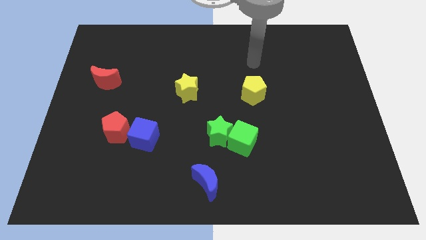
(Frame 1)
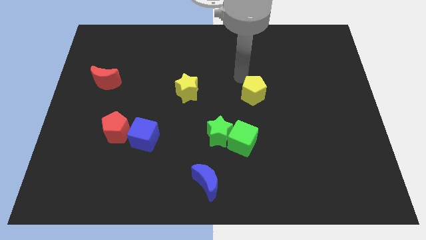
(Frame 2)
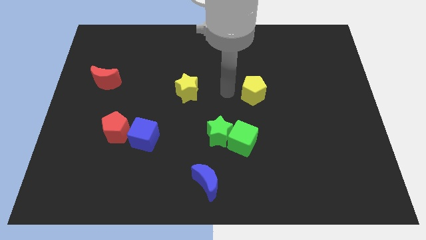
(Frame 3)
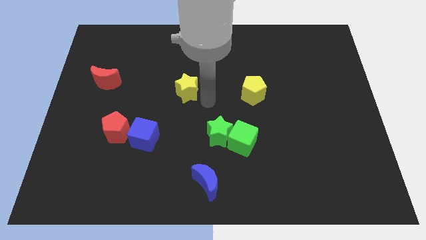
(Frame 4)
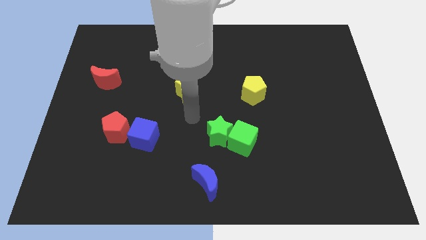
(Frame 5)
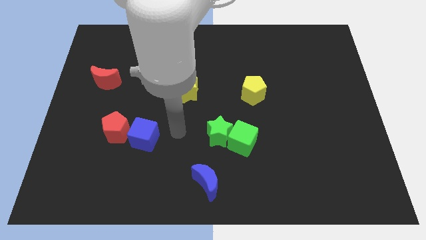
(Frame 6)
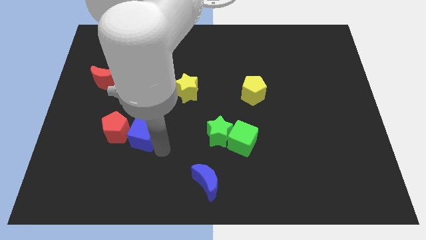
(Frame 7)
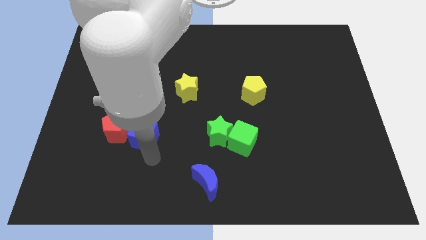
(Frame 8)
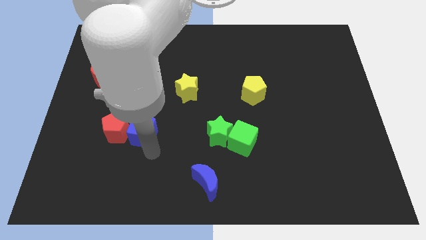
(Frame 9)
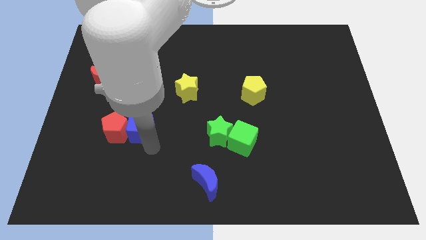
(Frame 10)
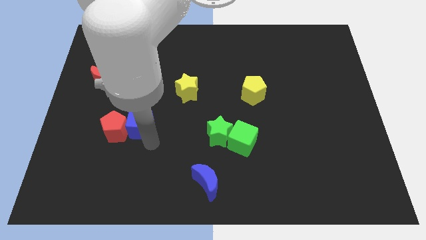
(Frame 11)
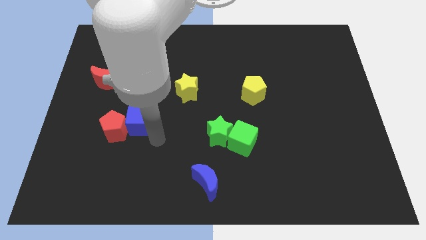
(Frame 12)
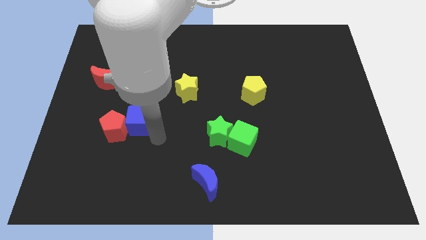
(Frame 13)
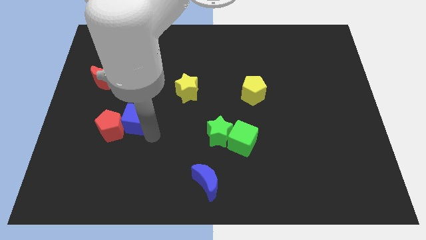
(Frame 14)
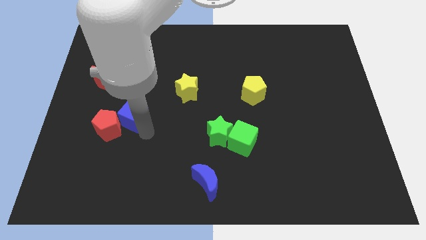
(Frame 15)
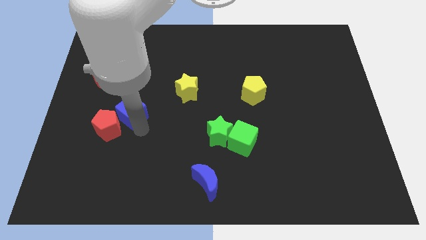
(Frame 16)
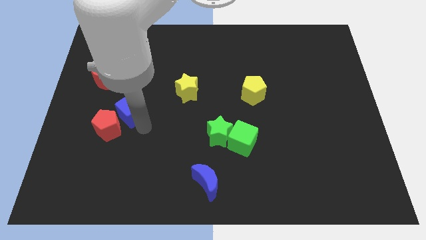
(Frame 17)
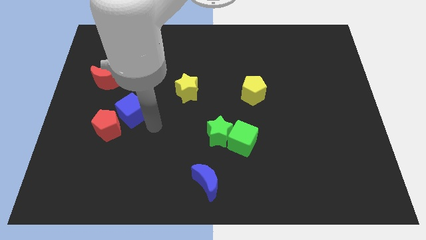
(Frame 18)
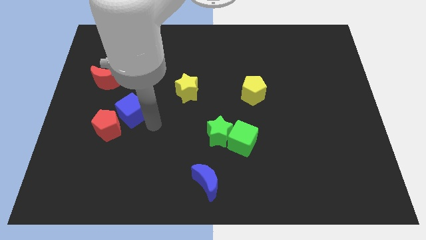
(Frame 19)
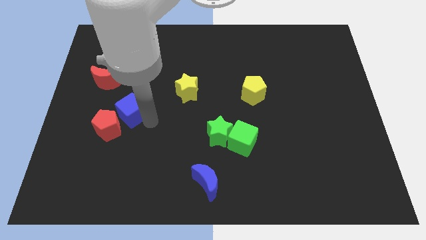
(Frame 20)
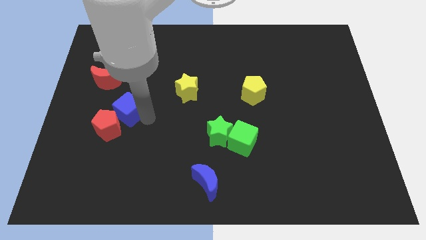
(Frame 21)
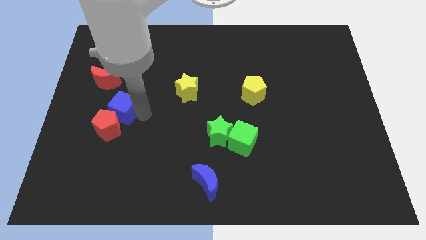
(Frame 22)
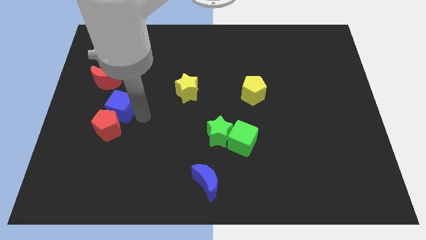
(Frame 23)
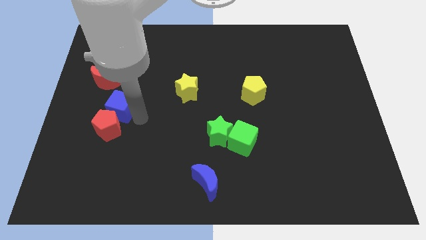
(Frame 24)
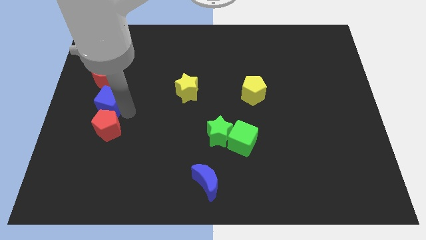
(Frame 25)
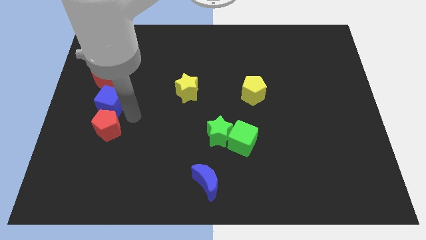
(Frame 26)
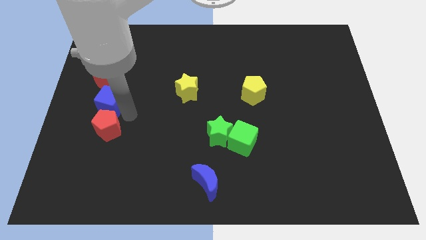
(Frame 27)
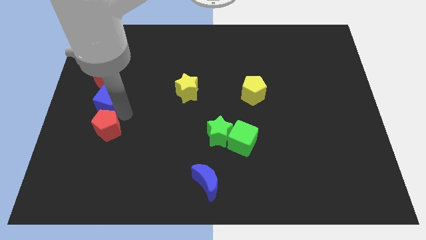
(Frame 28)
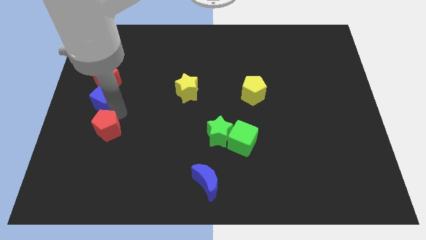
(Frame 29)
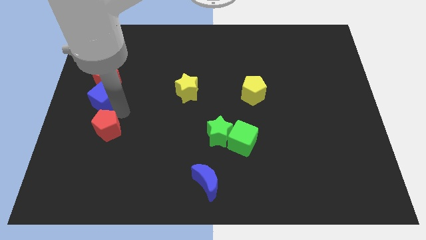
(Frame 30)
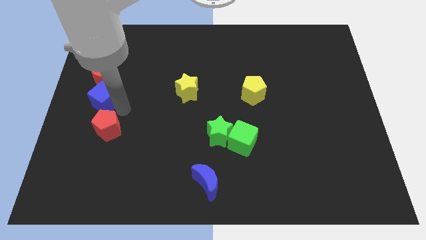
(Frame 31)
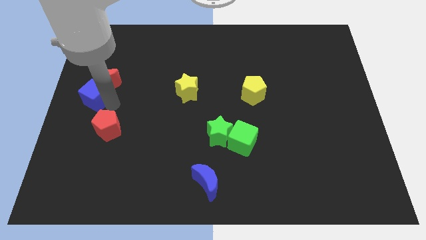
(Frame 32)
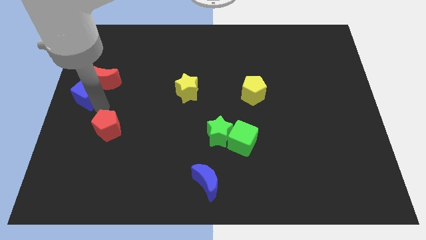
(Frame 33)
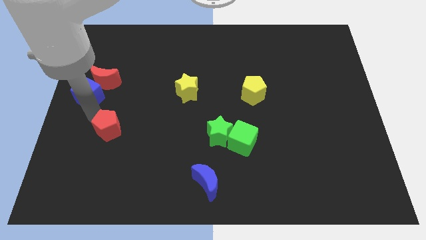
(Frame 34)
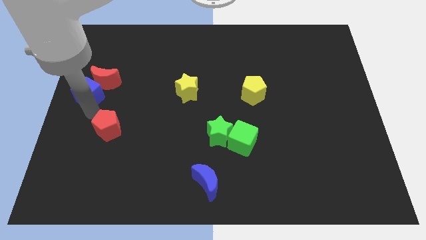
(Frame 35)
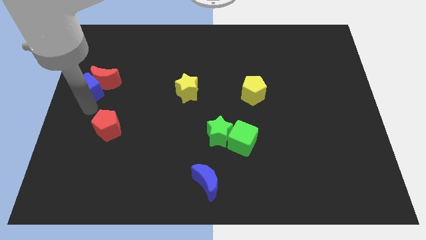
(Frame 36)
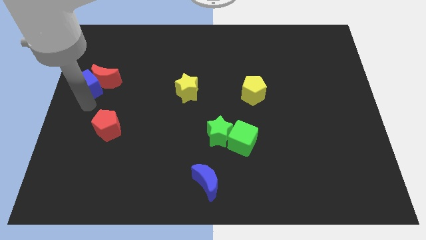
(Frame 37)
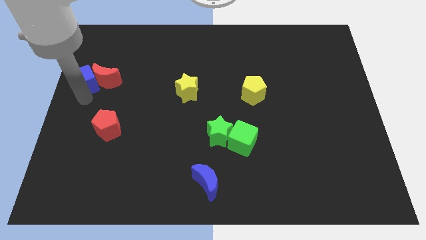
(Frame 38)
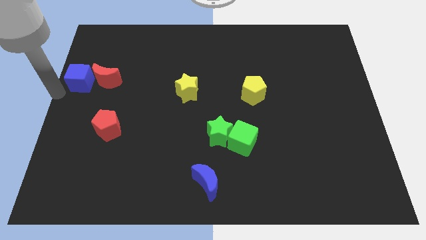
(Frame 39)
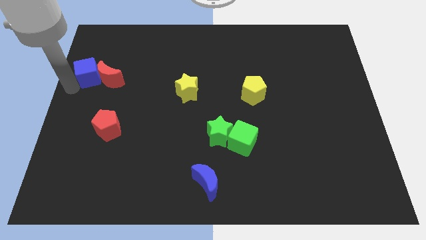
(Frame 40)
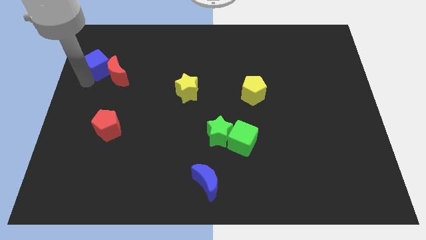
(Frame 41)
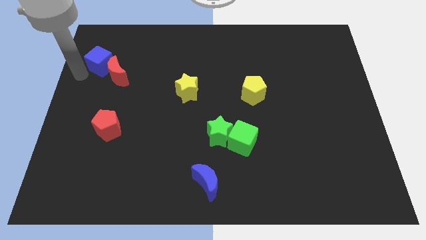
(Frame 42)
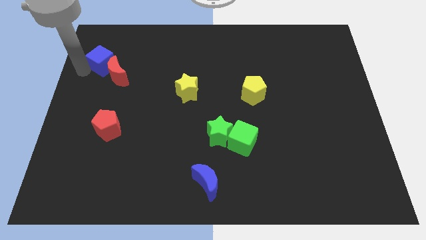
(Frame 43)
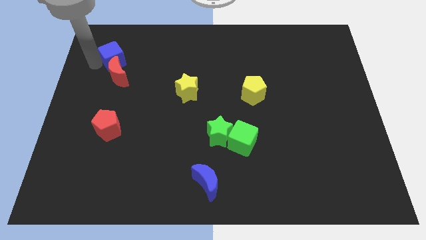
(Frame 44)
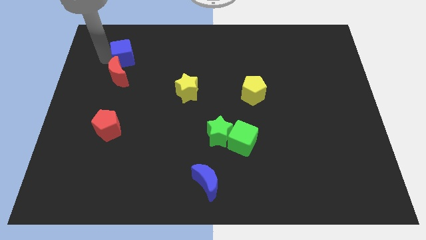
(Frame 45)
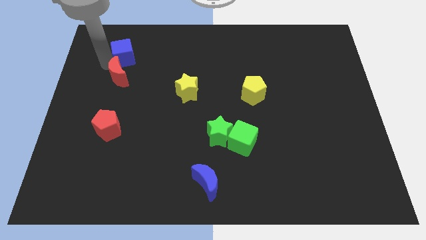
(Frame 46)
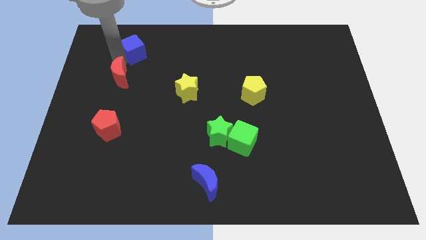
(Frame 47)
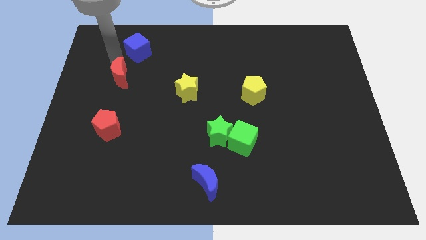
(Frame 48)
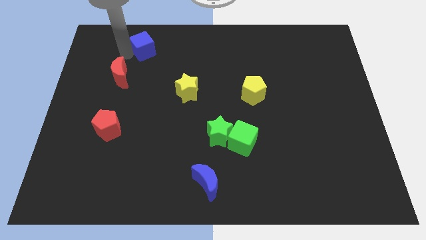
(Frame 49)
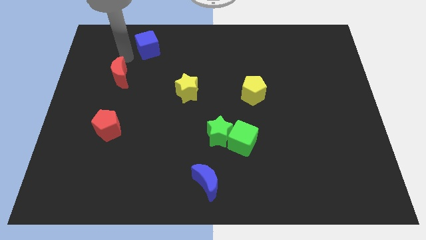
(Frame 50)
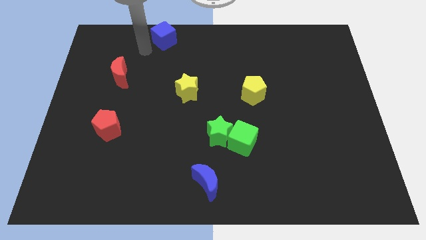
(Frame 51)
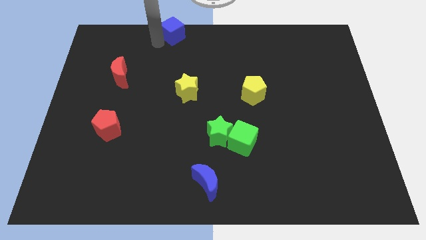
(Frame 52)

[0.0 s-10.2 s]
push the blue cube to the top side
